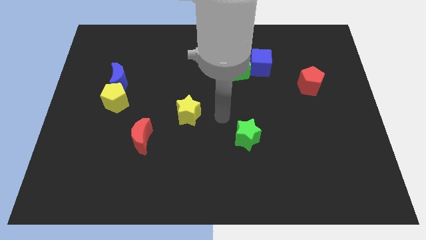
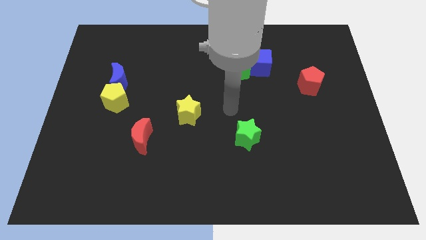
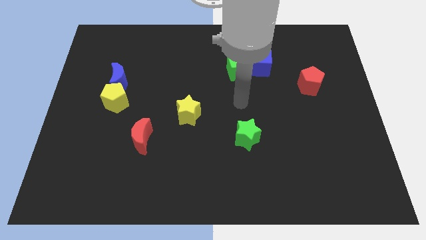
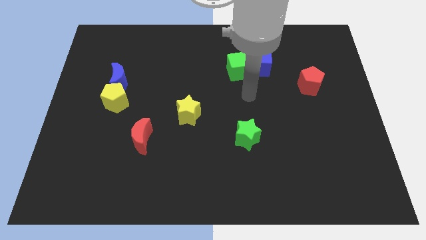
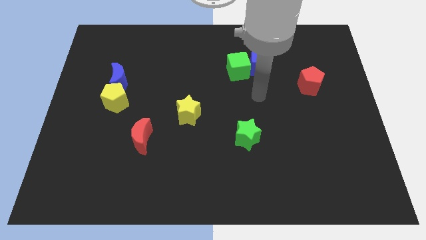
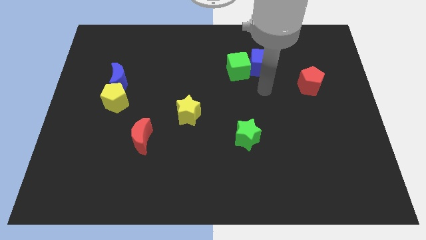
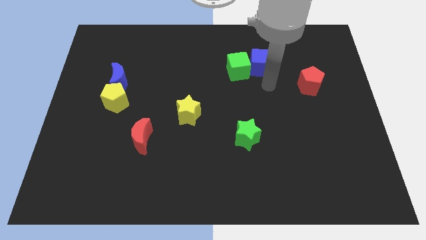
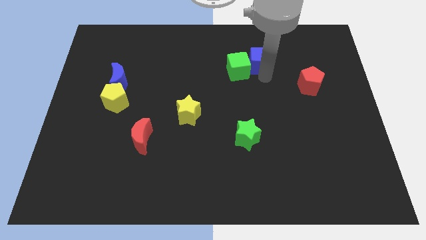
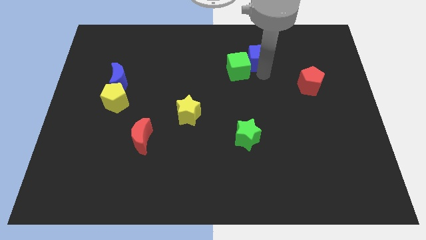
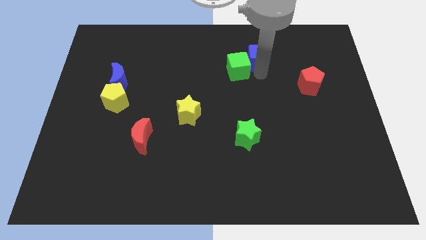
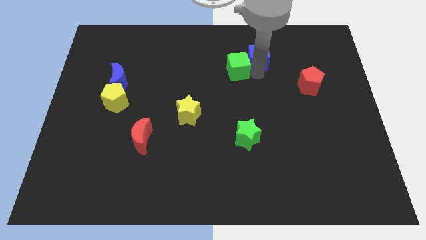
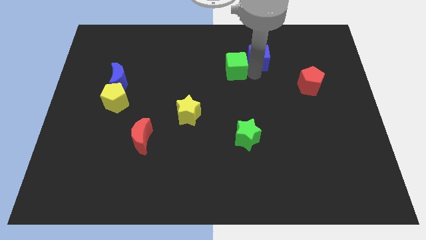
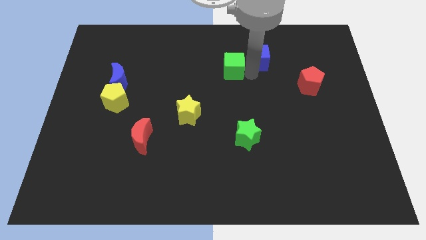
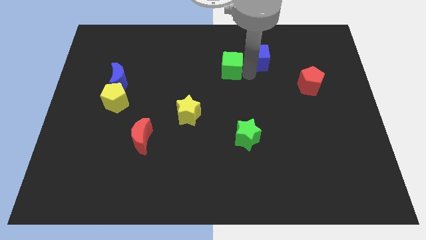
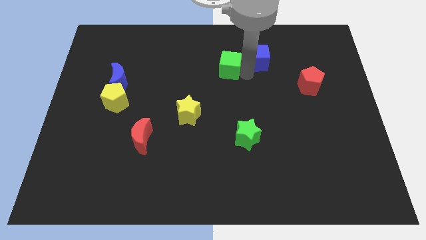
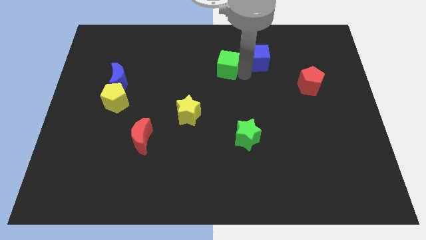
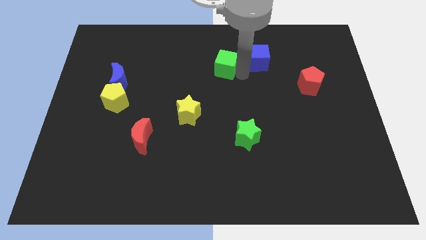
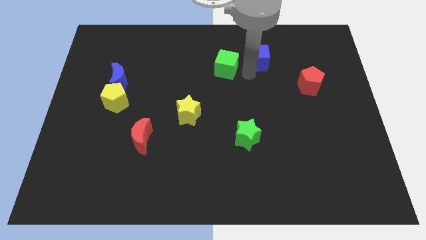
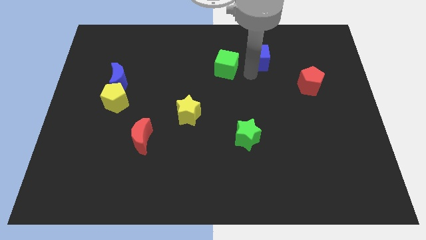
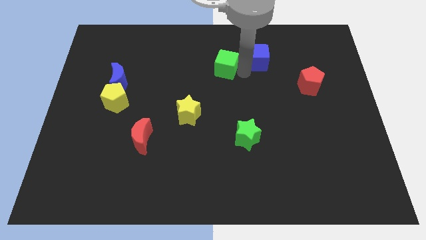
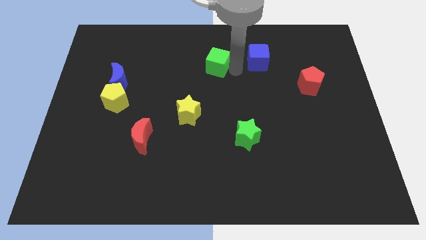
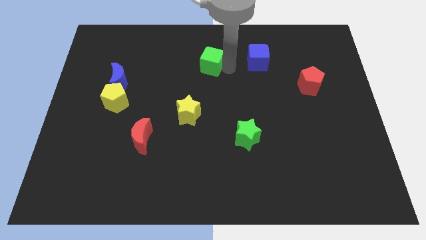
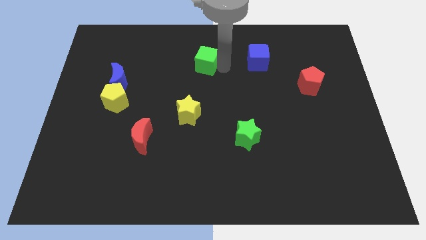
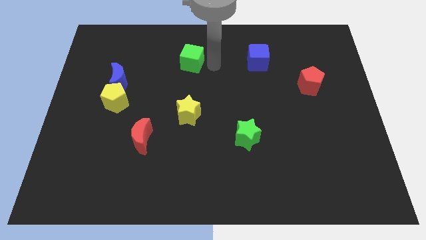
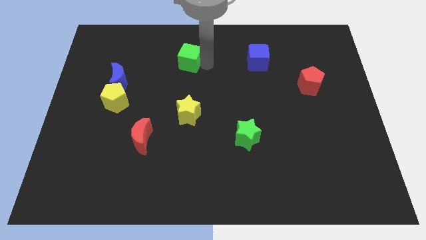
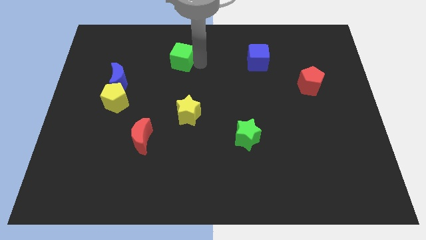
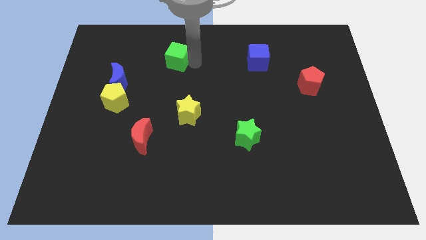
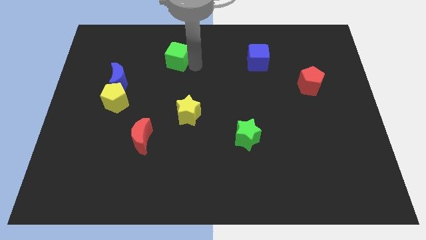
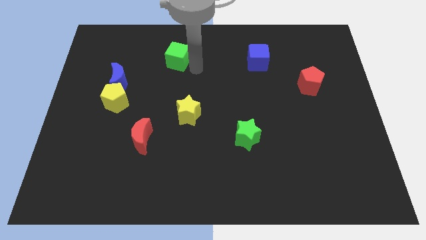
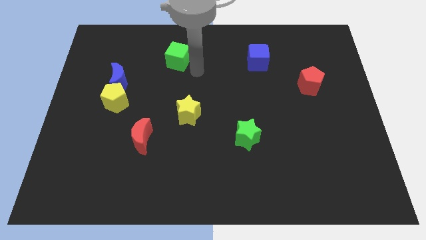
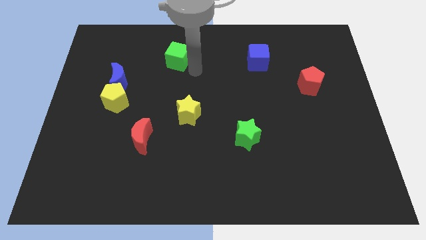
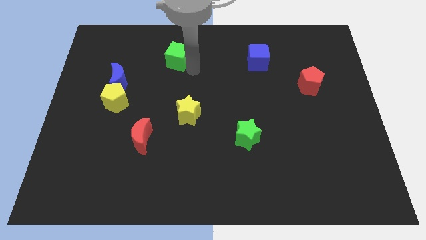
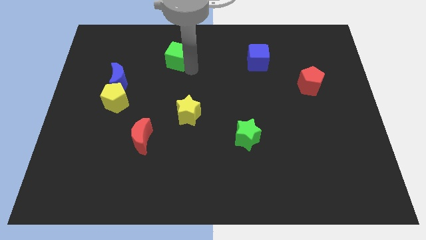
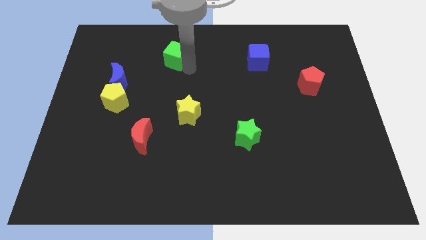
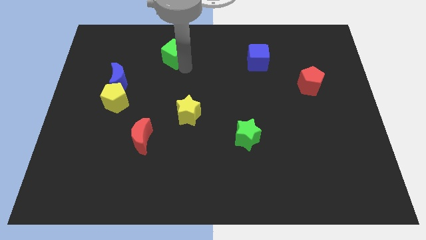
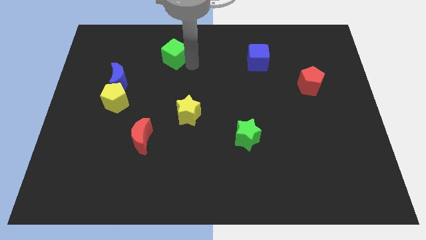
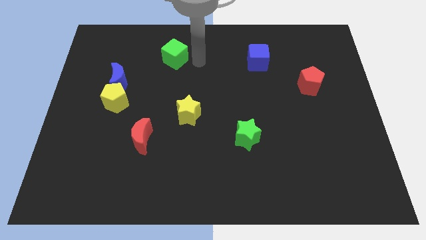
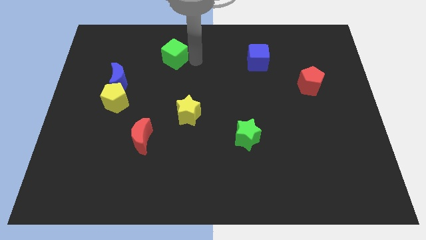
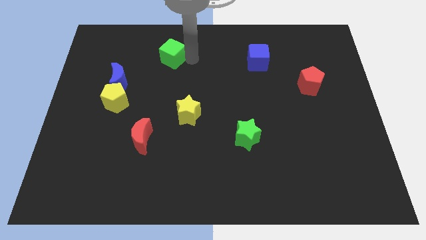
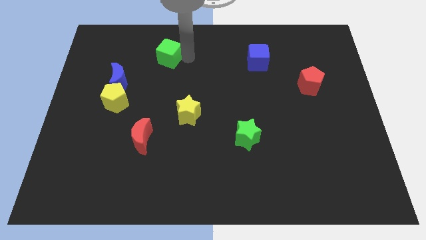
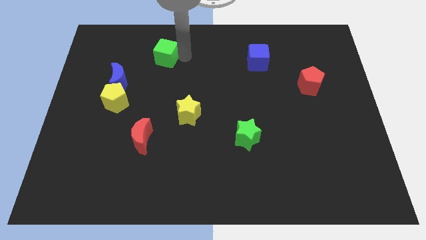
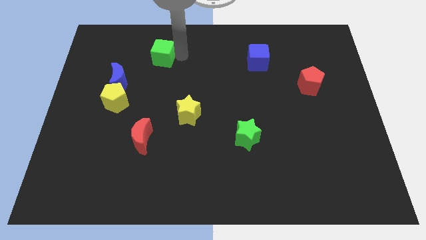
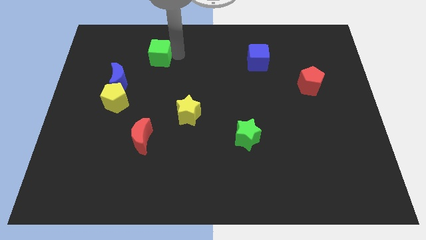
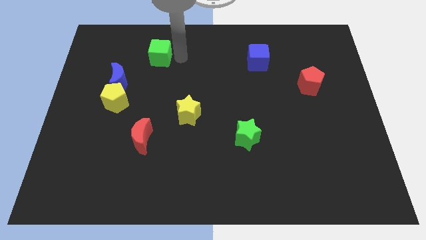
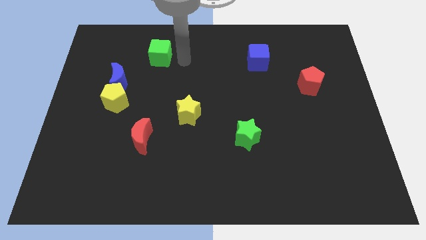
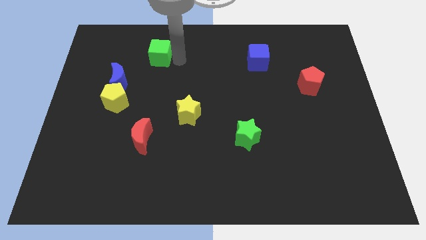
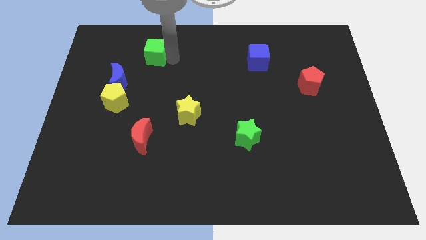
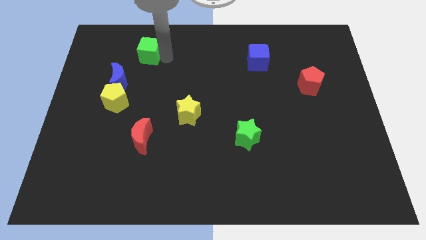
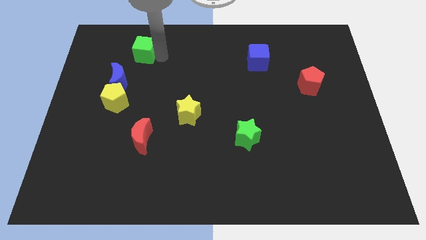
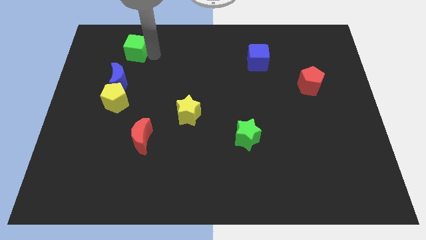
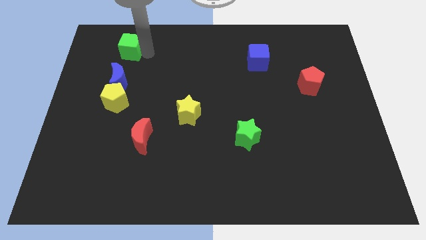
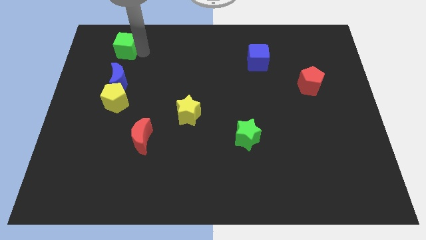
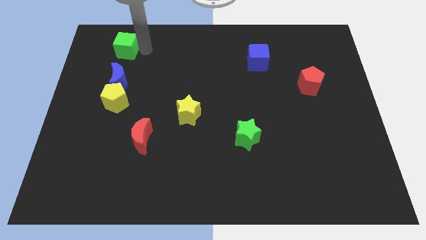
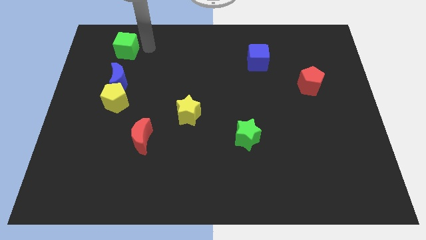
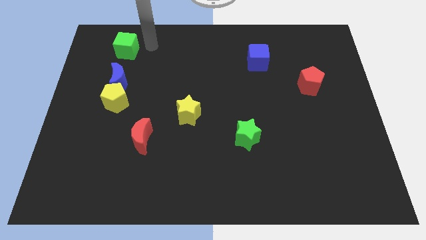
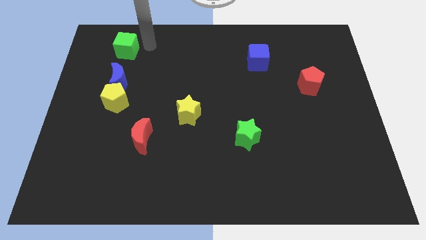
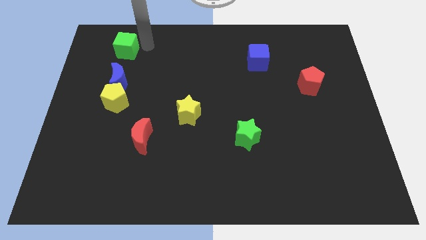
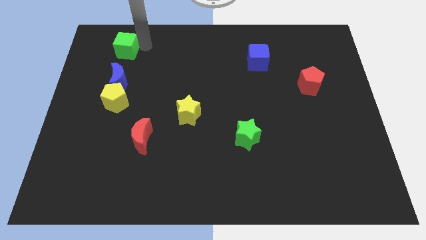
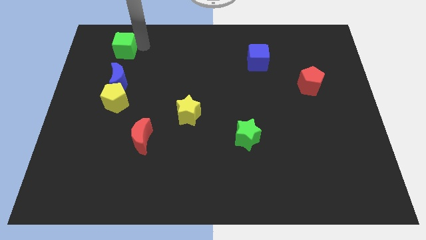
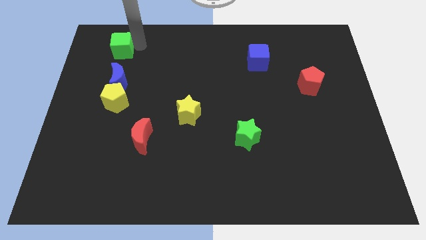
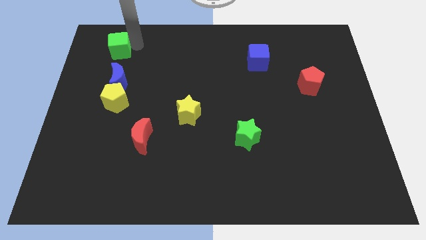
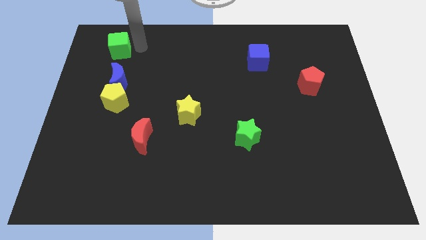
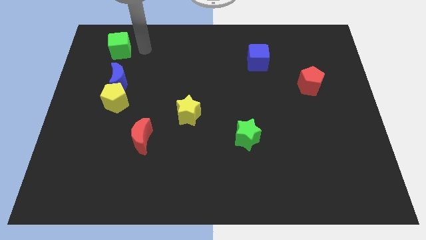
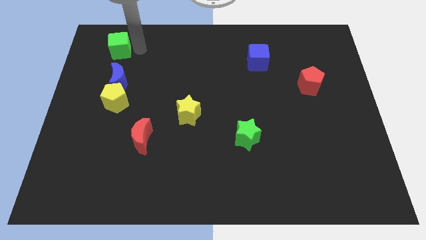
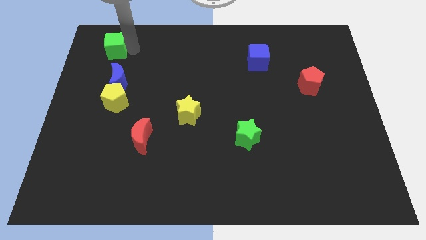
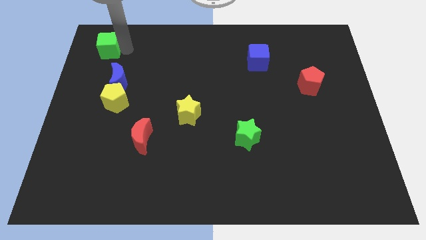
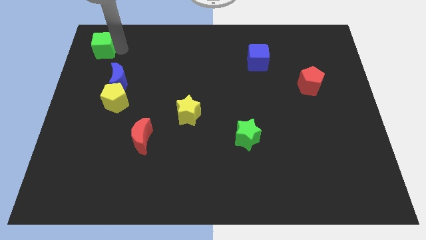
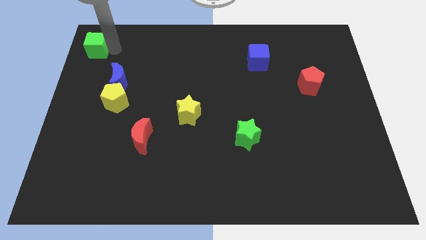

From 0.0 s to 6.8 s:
push the green cube to the top left of the board

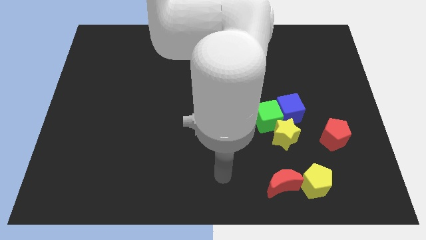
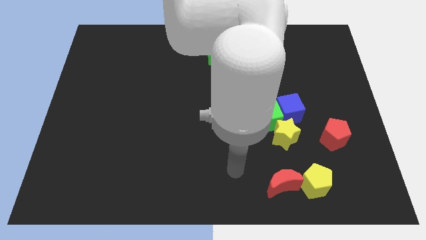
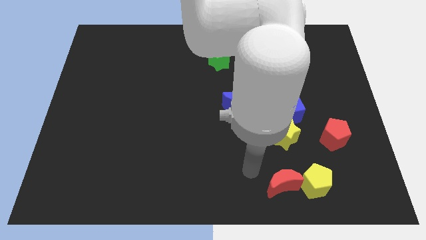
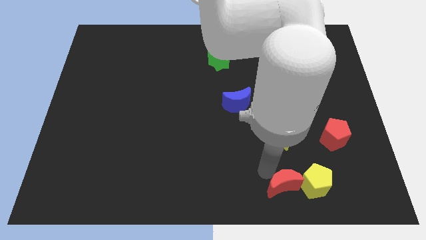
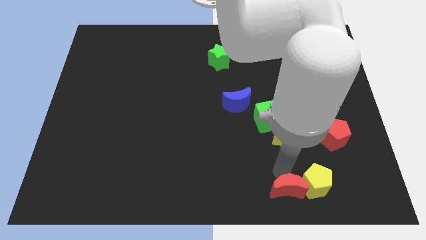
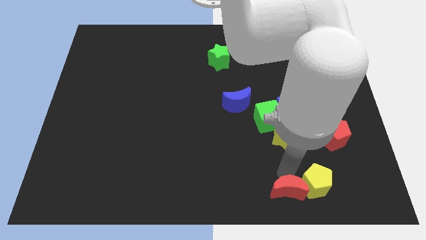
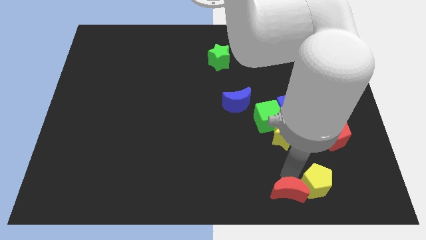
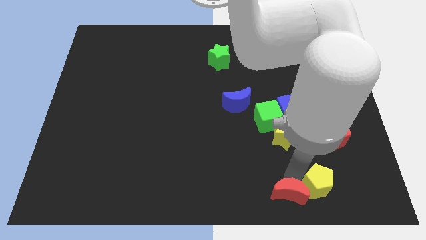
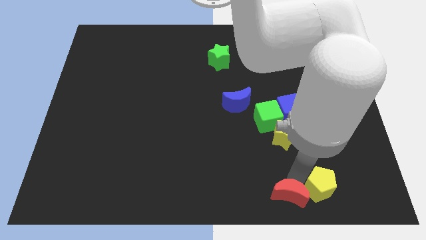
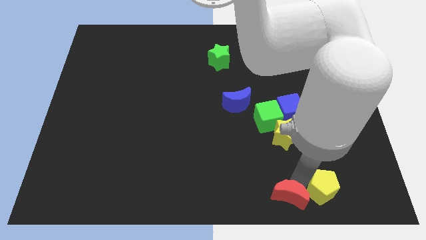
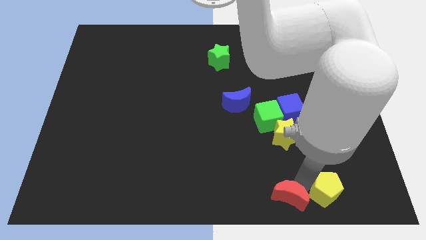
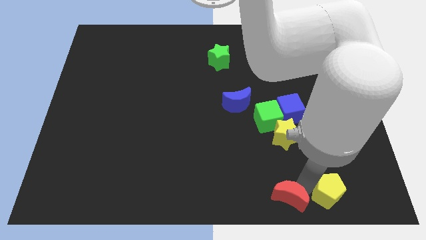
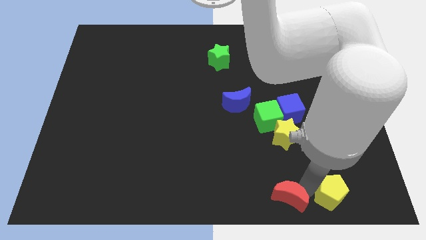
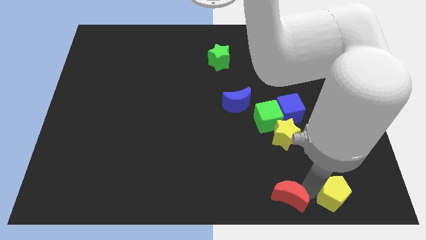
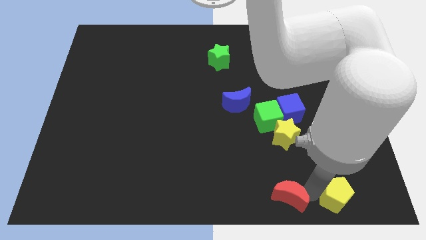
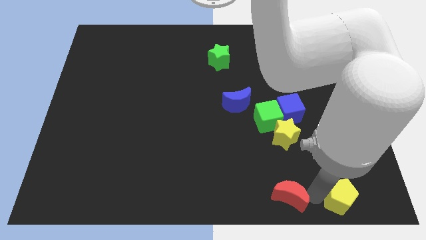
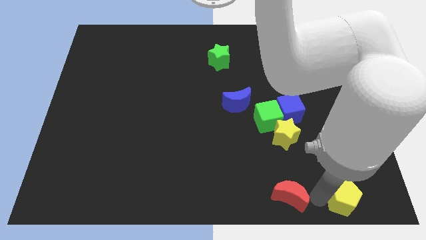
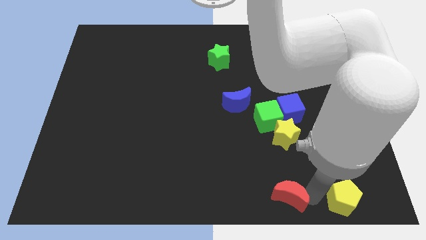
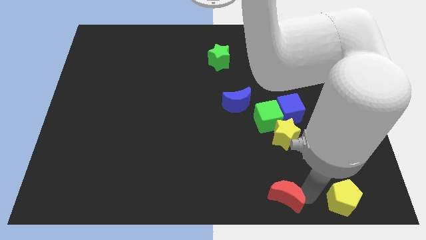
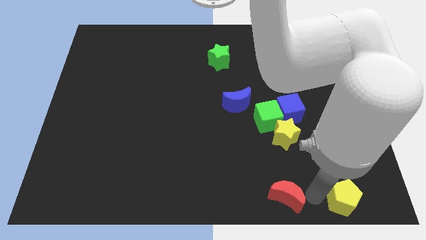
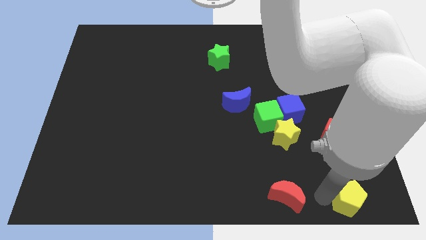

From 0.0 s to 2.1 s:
put the yellow pentagon to the bottom right
